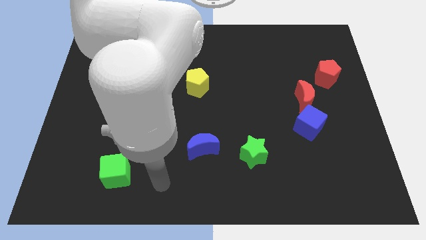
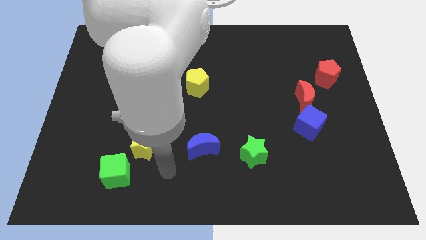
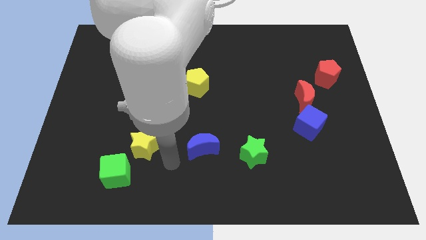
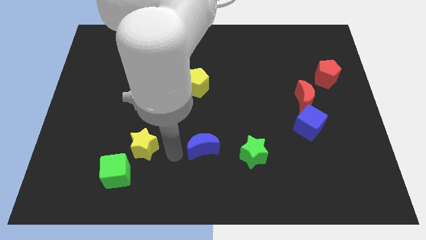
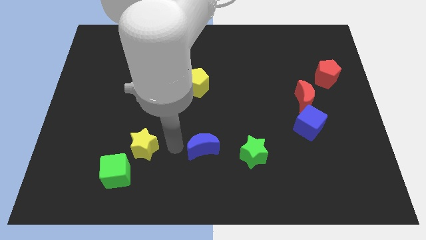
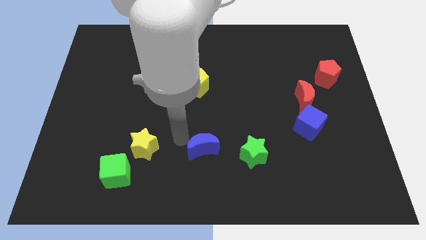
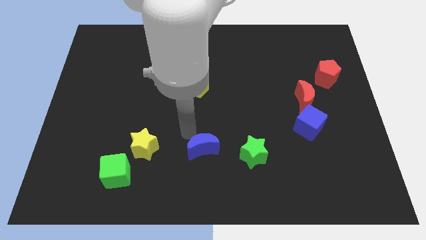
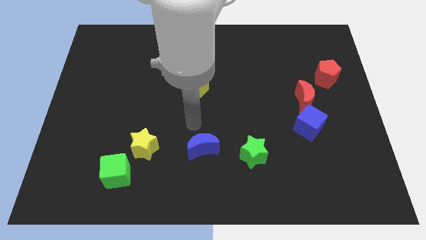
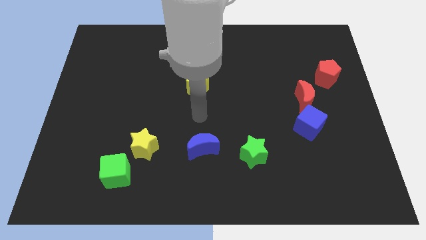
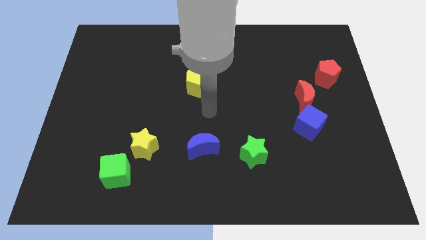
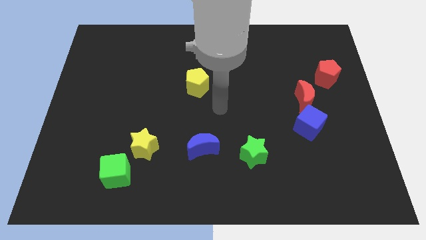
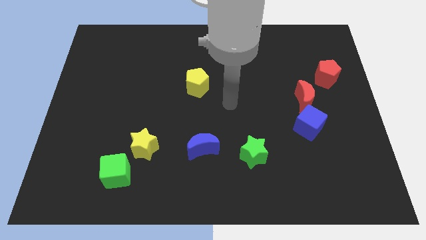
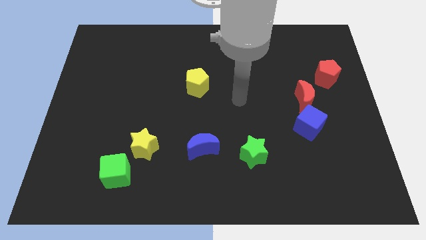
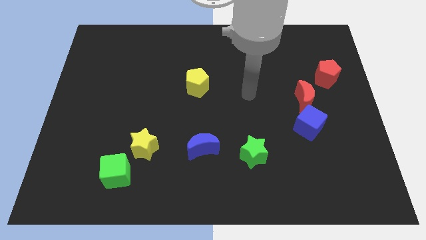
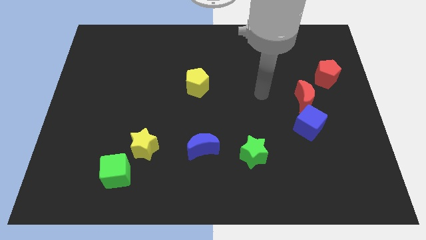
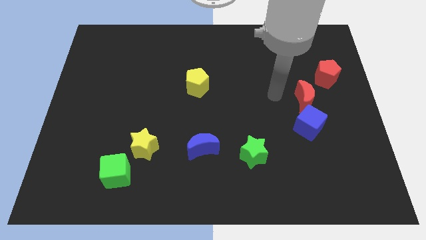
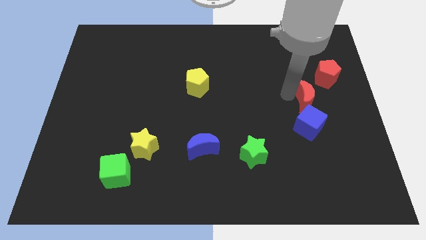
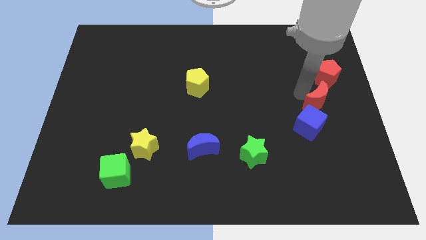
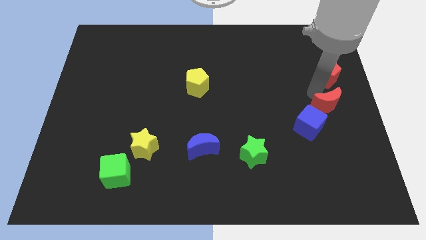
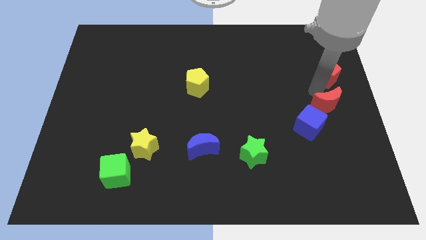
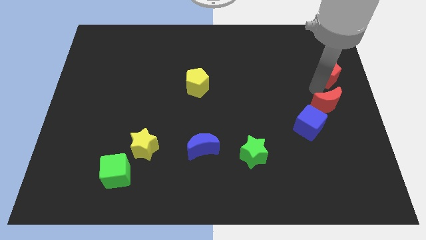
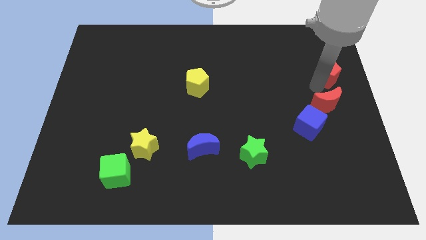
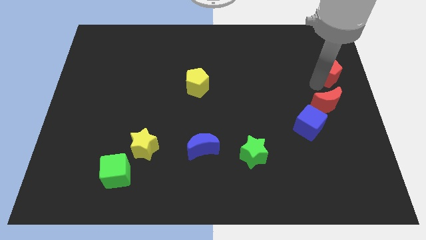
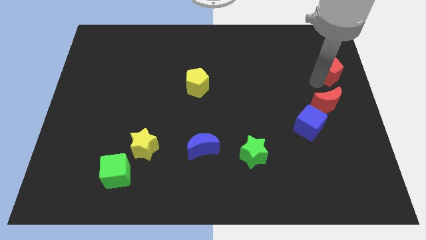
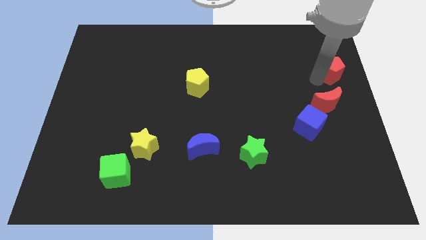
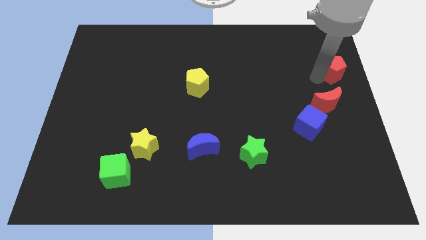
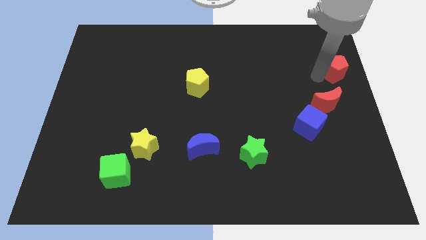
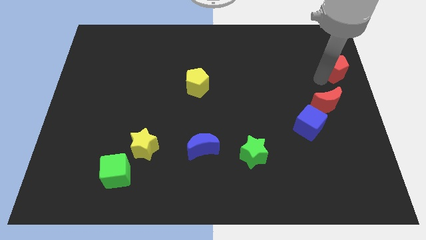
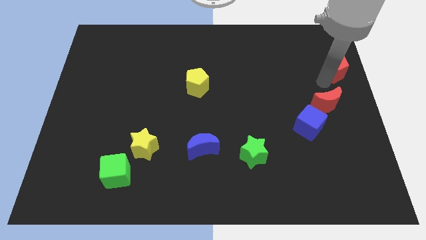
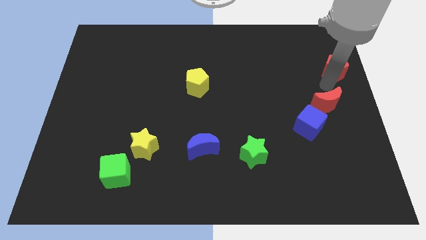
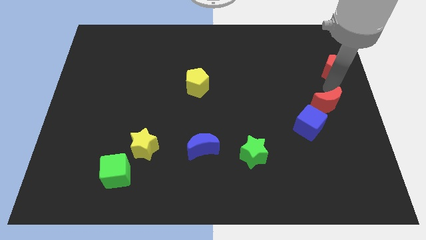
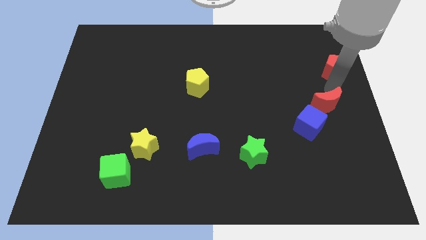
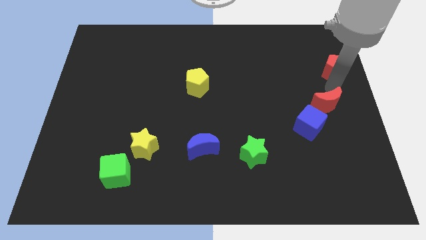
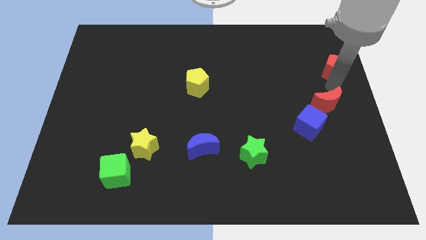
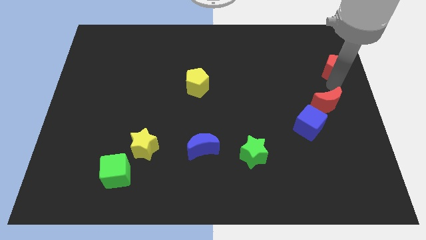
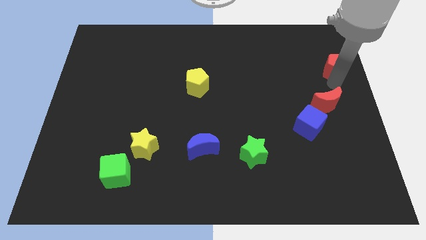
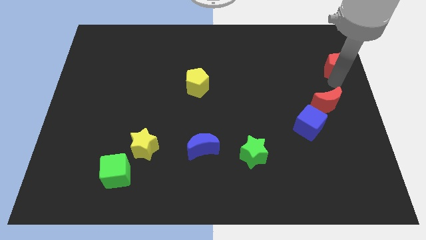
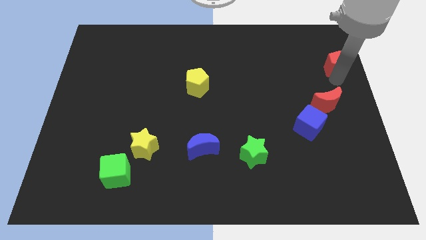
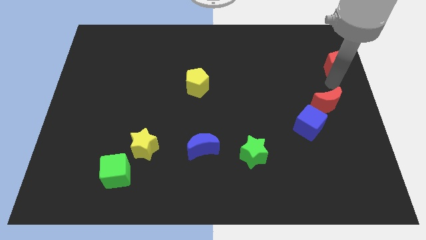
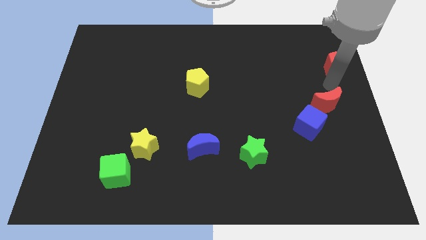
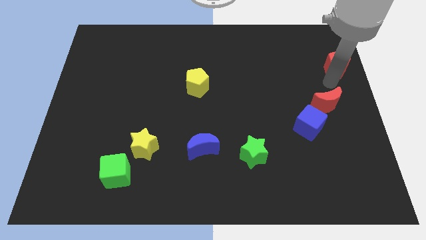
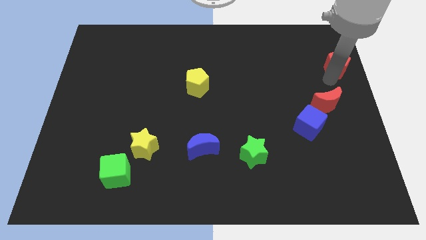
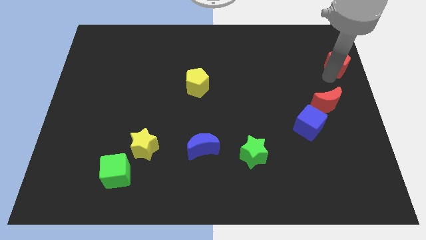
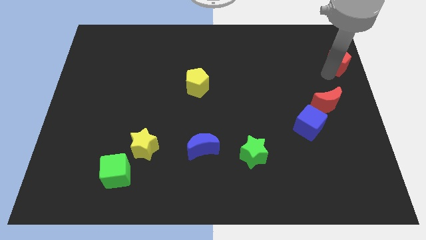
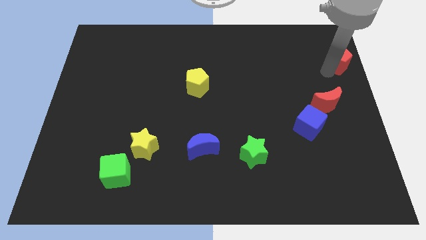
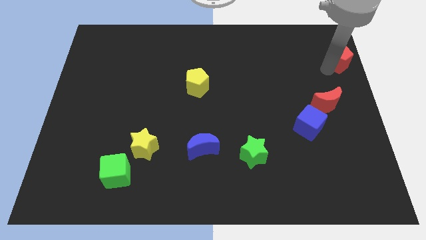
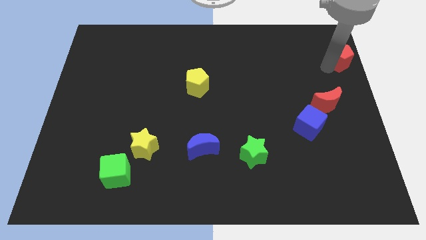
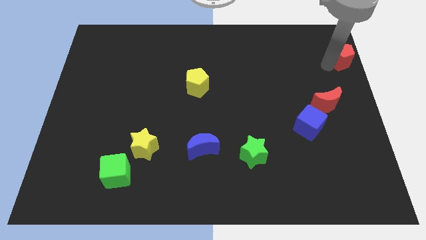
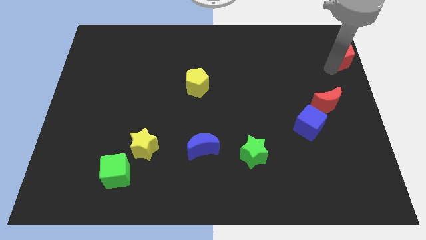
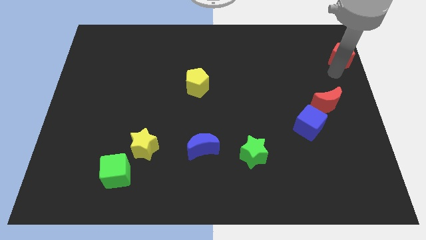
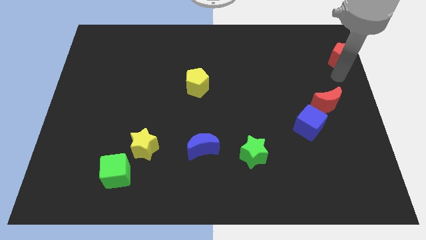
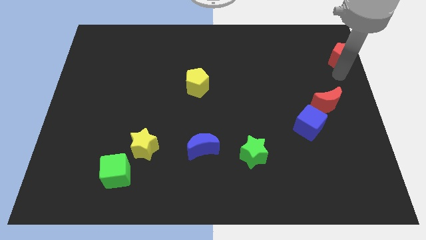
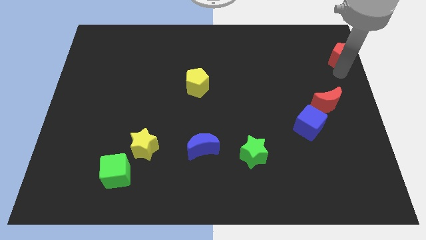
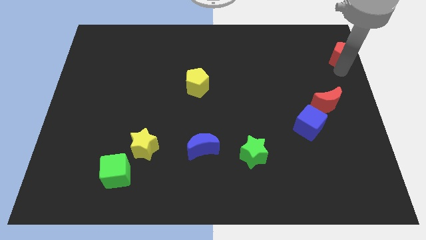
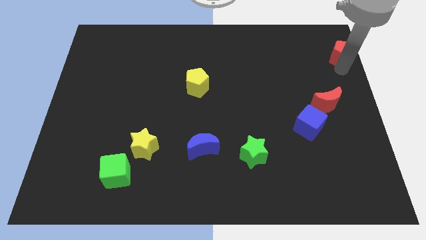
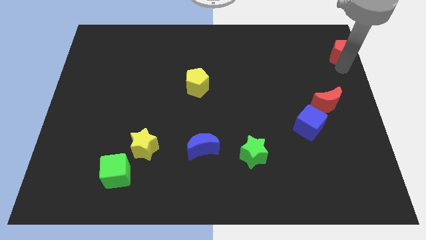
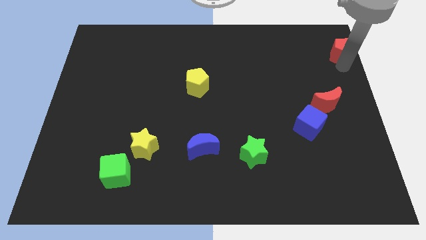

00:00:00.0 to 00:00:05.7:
put the red pentagon to the top right corner
